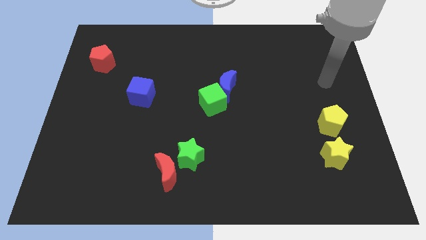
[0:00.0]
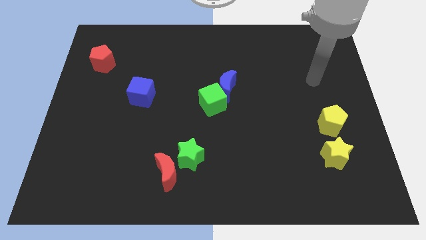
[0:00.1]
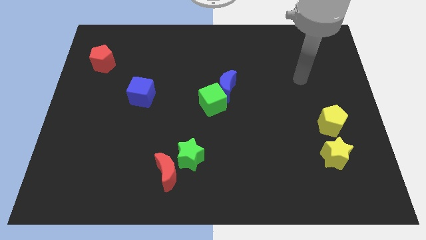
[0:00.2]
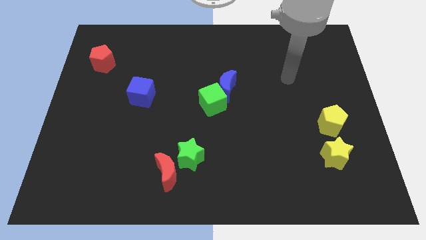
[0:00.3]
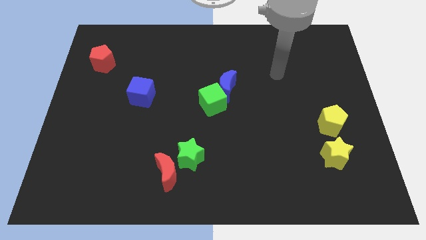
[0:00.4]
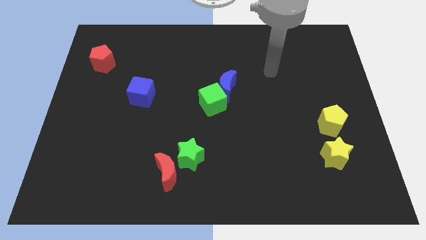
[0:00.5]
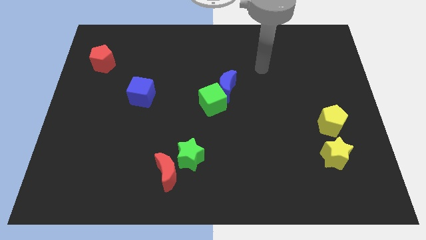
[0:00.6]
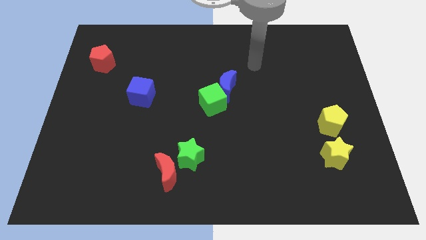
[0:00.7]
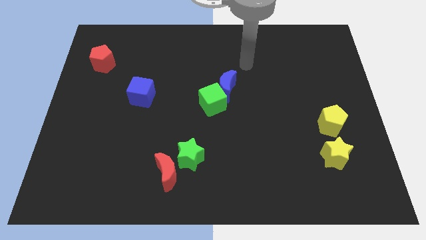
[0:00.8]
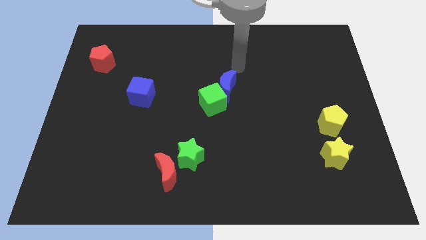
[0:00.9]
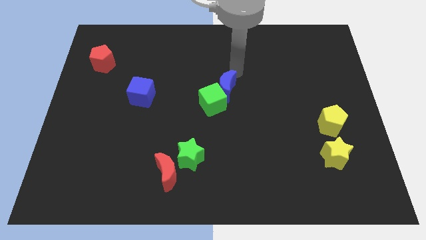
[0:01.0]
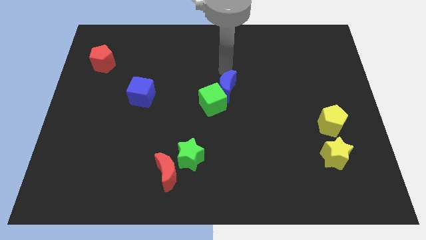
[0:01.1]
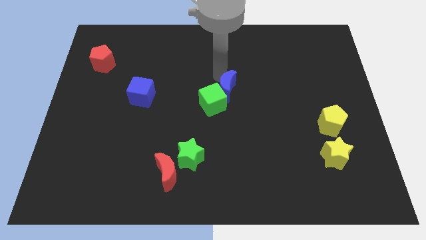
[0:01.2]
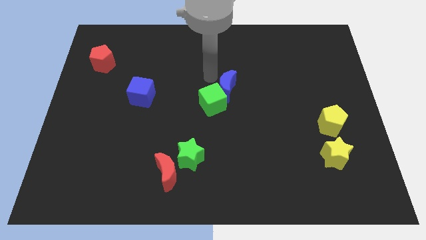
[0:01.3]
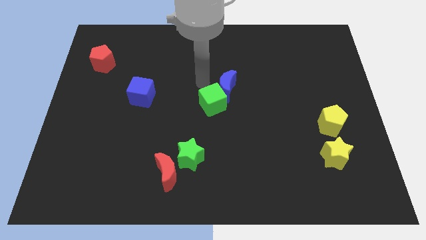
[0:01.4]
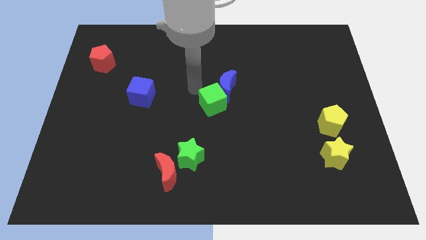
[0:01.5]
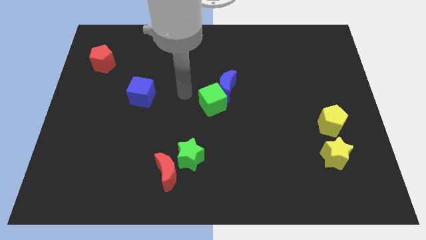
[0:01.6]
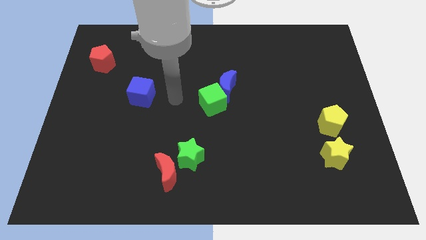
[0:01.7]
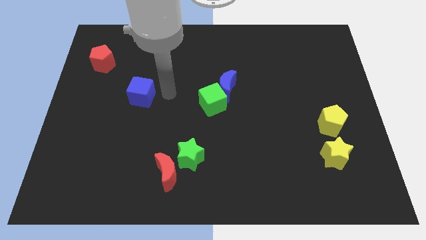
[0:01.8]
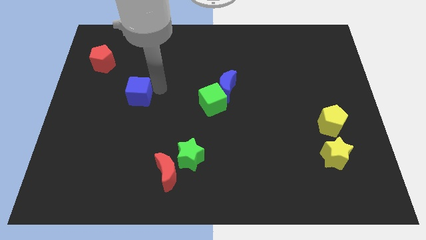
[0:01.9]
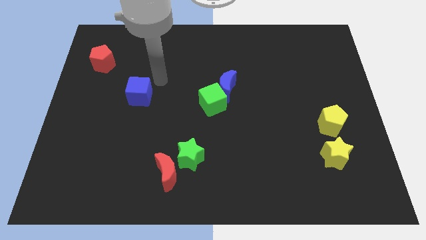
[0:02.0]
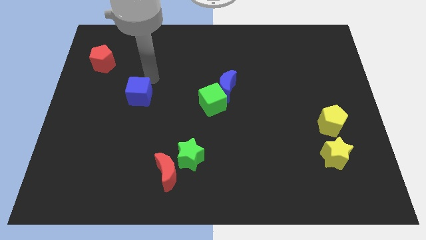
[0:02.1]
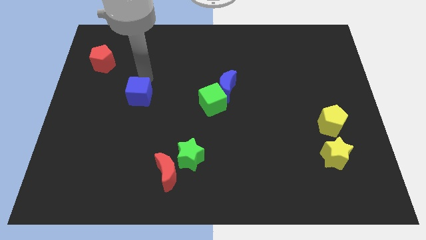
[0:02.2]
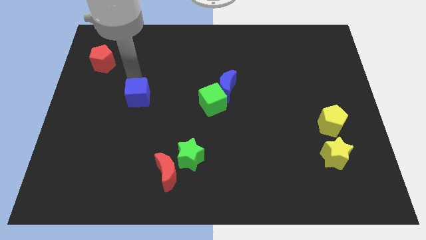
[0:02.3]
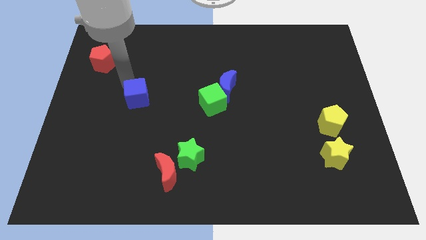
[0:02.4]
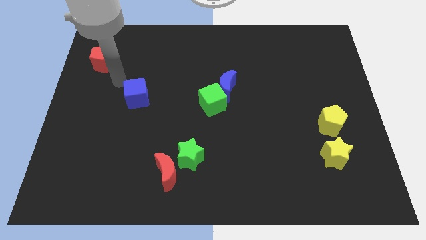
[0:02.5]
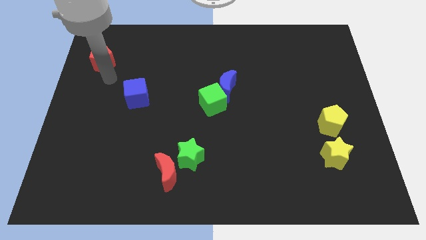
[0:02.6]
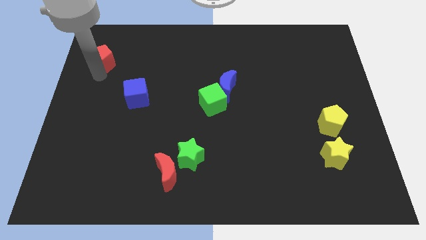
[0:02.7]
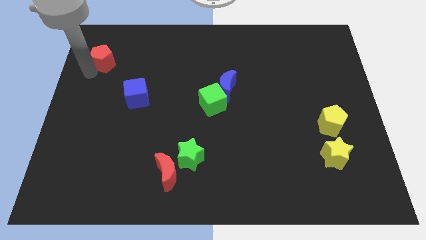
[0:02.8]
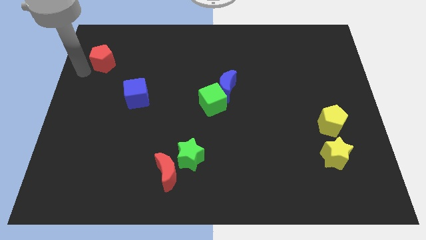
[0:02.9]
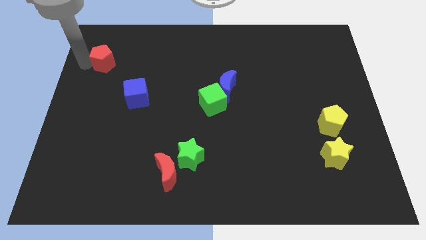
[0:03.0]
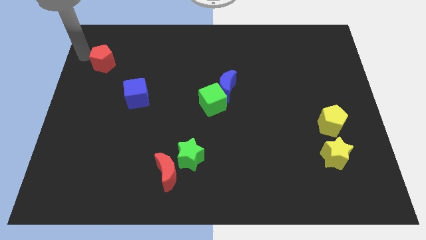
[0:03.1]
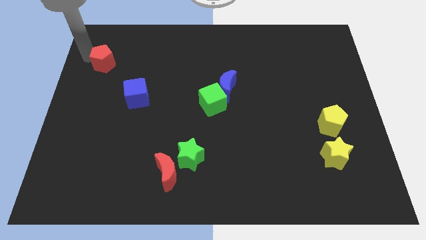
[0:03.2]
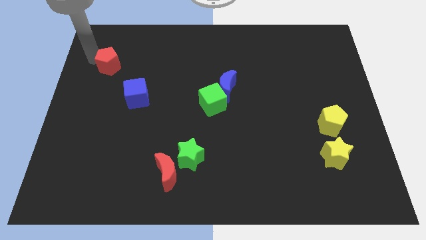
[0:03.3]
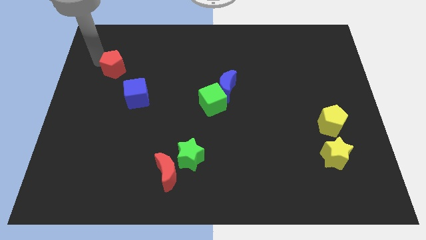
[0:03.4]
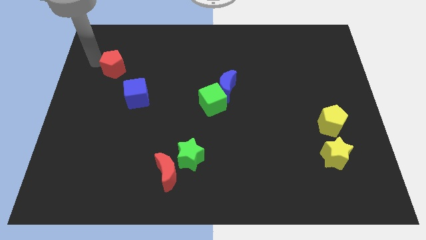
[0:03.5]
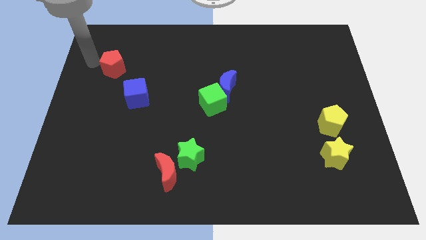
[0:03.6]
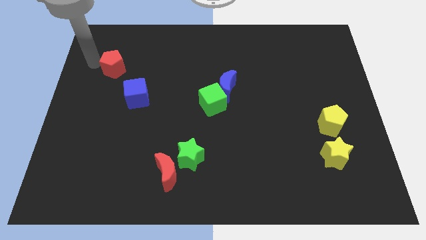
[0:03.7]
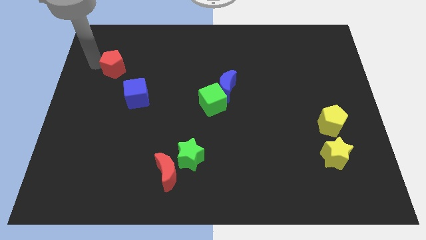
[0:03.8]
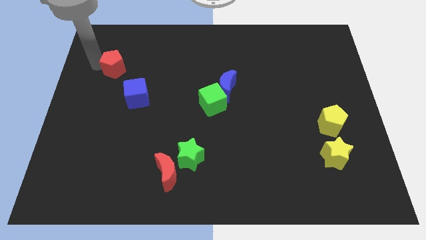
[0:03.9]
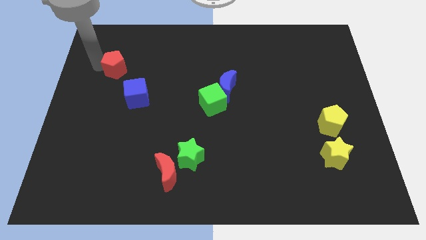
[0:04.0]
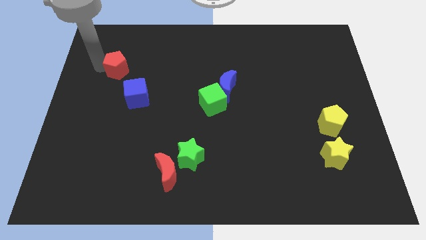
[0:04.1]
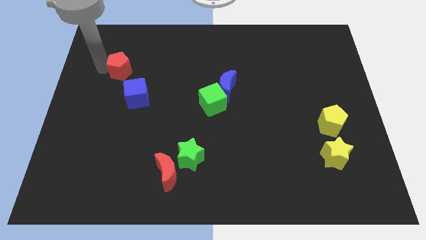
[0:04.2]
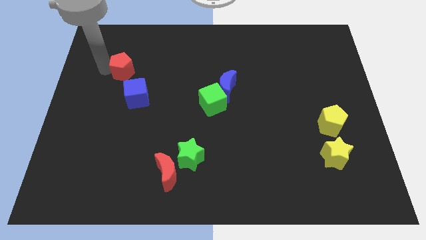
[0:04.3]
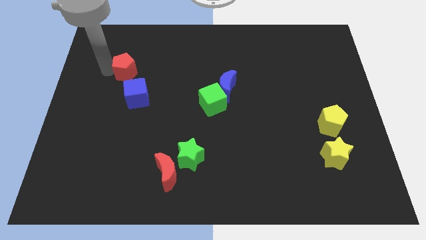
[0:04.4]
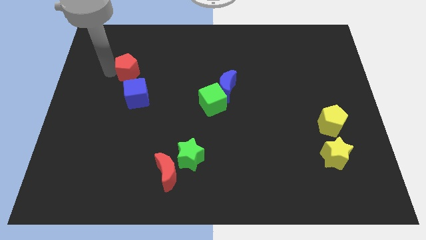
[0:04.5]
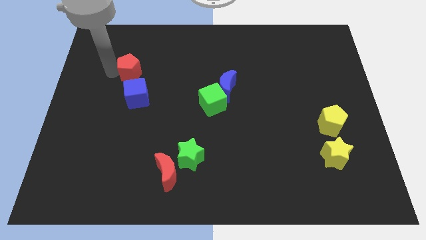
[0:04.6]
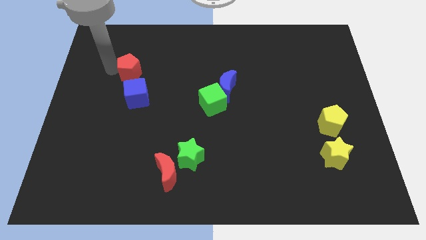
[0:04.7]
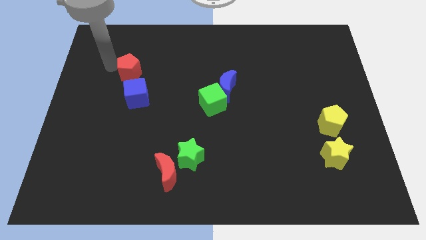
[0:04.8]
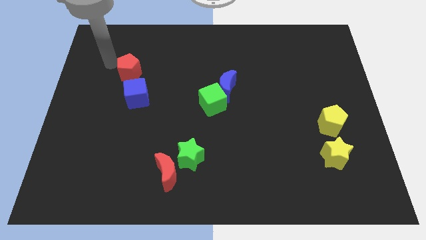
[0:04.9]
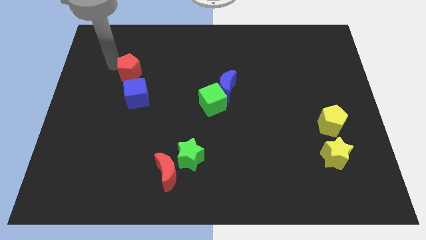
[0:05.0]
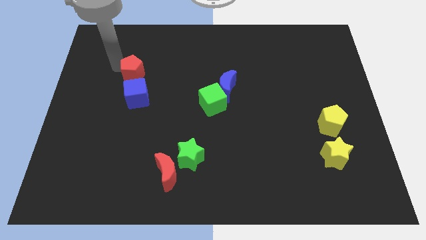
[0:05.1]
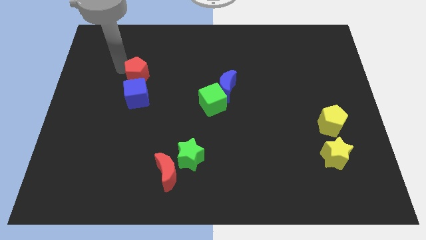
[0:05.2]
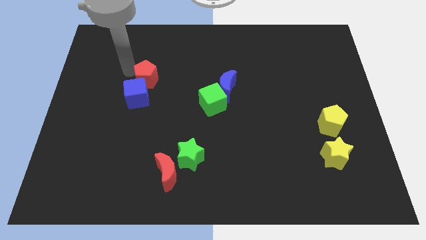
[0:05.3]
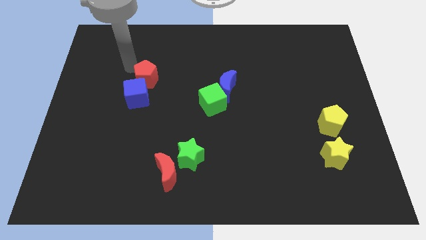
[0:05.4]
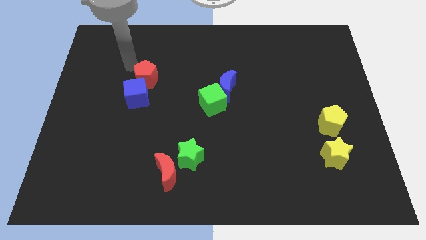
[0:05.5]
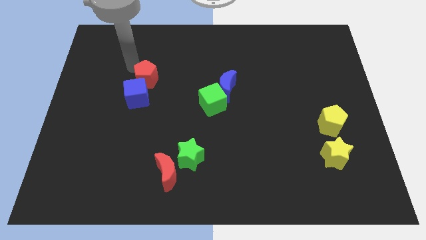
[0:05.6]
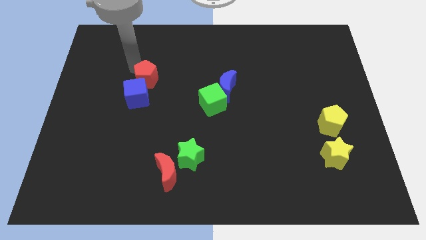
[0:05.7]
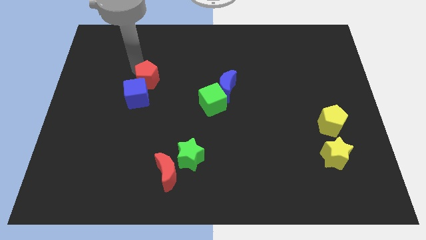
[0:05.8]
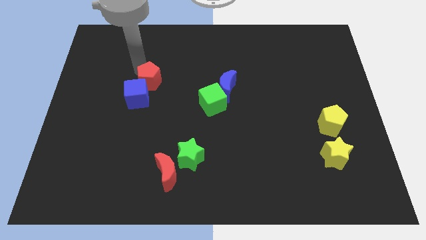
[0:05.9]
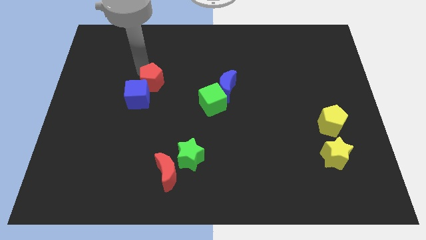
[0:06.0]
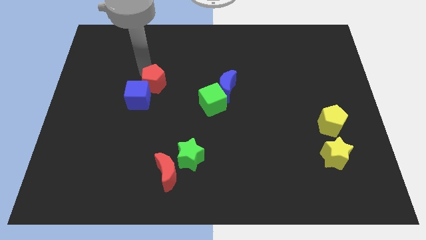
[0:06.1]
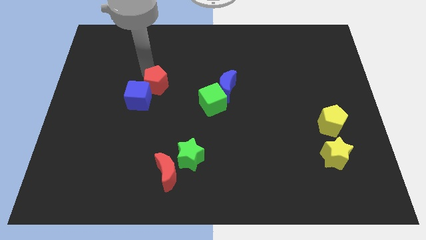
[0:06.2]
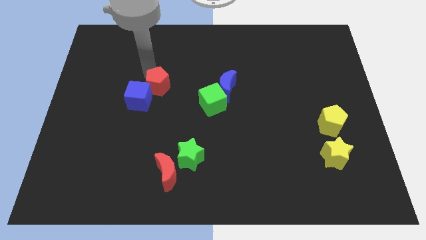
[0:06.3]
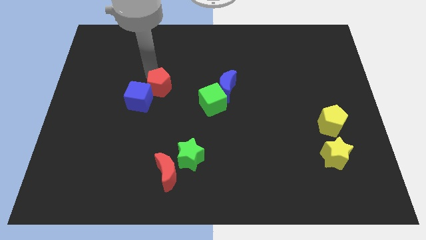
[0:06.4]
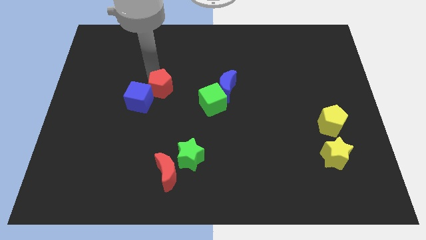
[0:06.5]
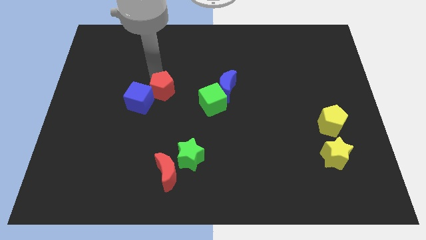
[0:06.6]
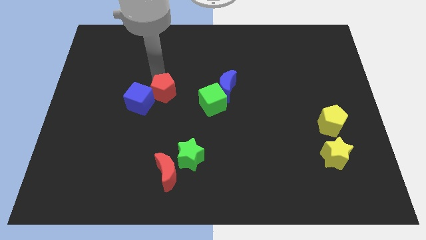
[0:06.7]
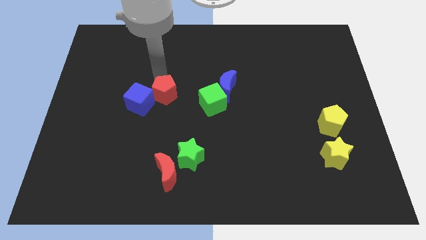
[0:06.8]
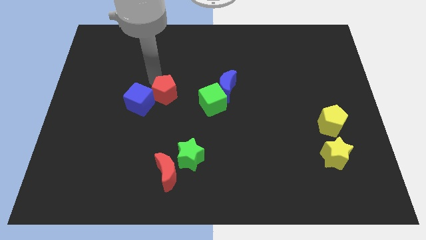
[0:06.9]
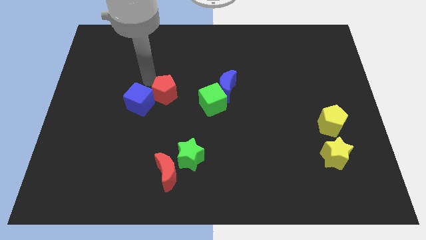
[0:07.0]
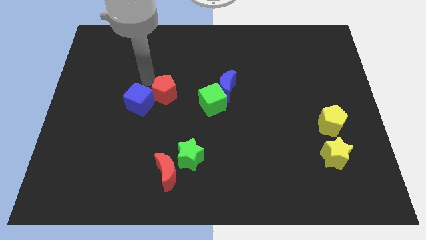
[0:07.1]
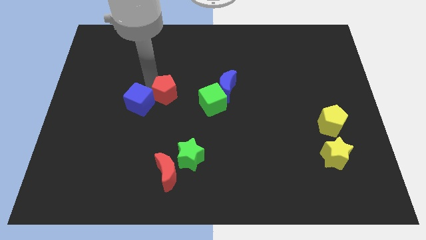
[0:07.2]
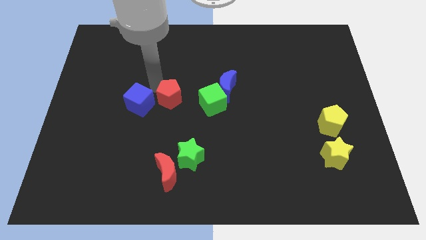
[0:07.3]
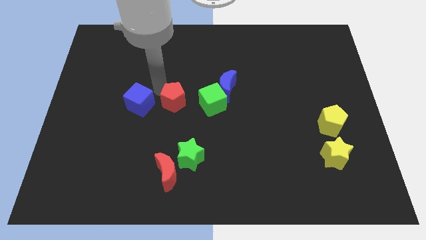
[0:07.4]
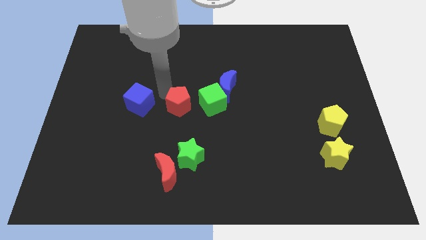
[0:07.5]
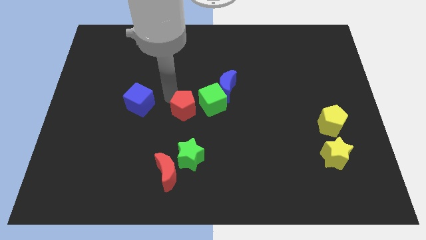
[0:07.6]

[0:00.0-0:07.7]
slide the red pentagon diagonally down and to the left of the green cube
